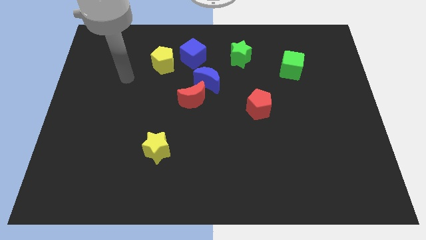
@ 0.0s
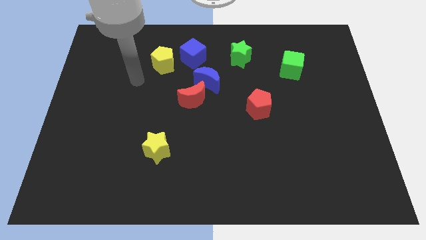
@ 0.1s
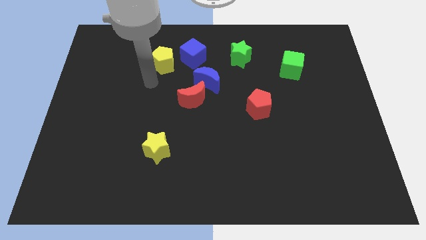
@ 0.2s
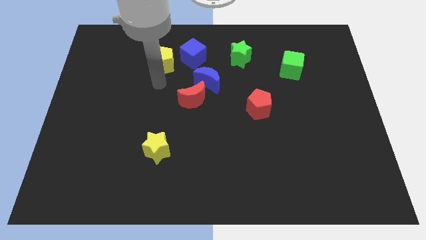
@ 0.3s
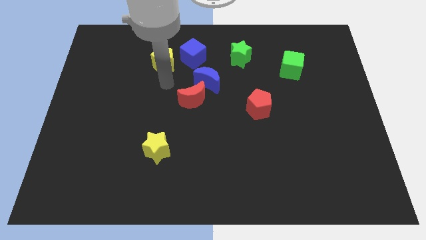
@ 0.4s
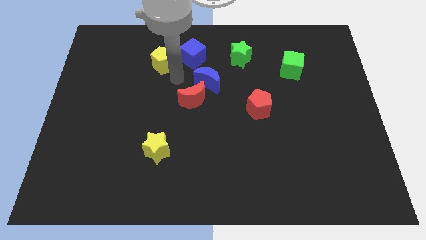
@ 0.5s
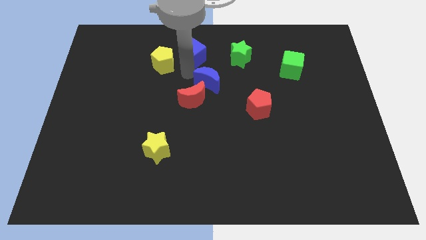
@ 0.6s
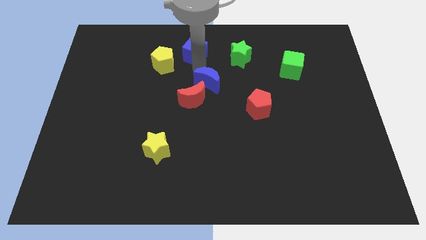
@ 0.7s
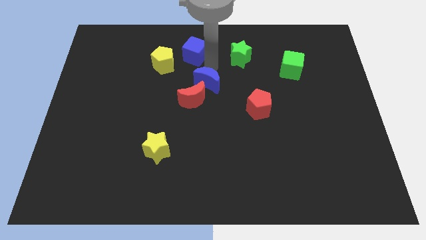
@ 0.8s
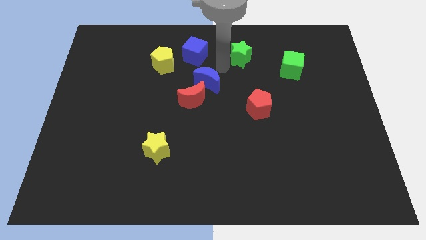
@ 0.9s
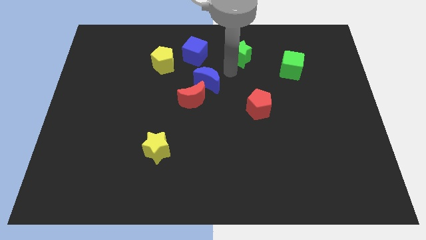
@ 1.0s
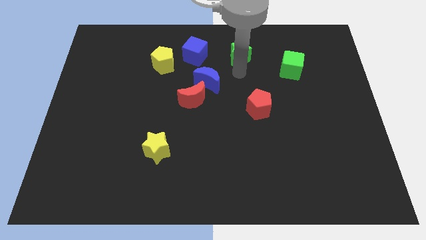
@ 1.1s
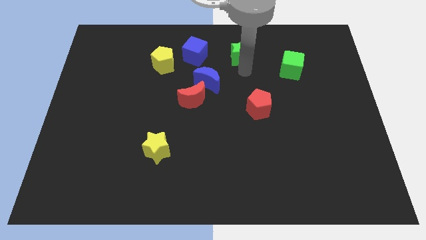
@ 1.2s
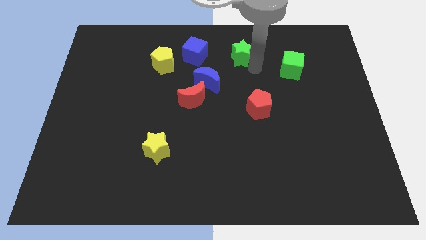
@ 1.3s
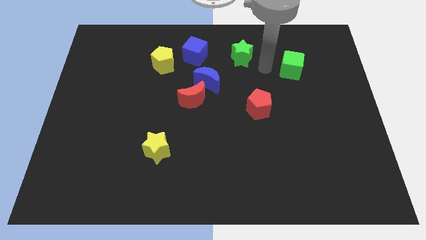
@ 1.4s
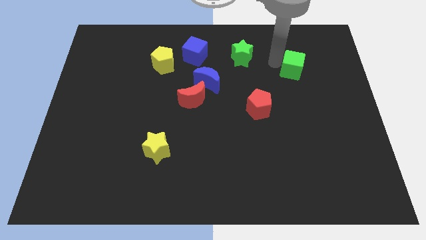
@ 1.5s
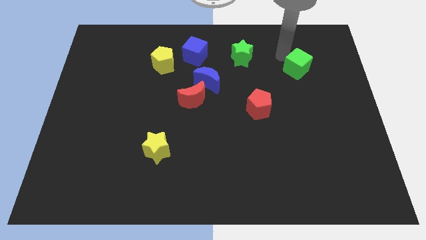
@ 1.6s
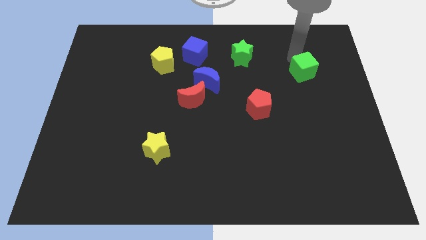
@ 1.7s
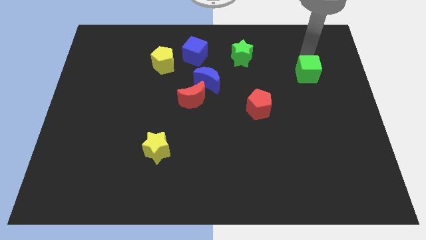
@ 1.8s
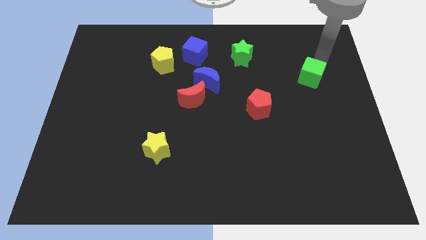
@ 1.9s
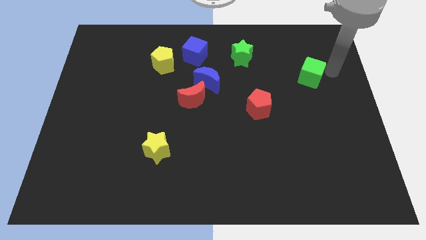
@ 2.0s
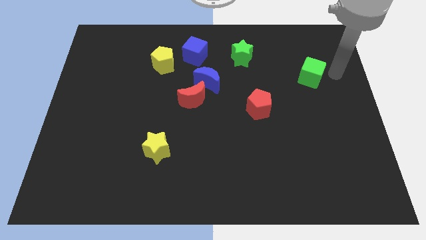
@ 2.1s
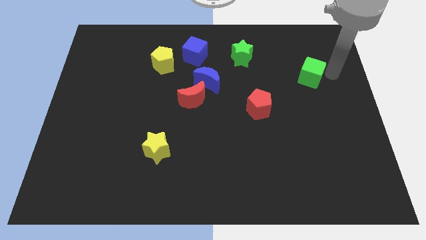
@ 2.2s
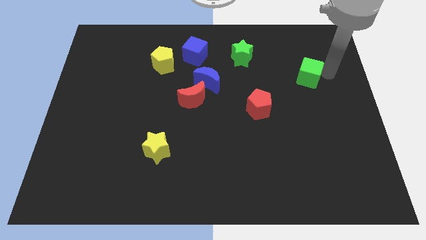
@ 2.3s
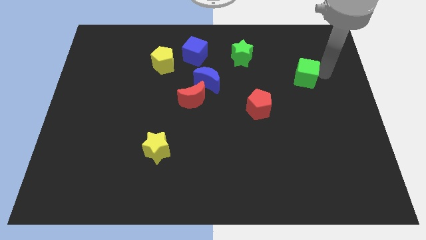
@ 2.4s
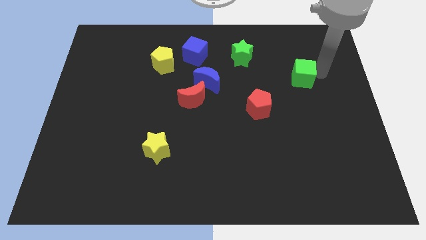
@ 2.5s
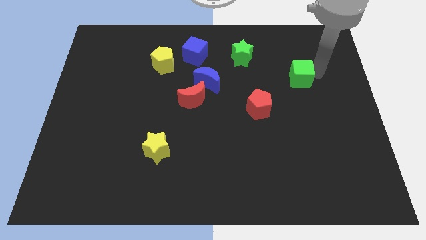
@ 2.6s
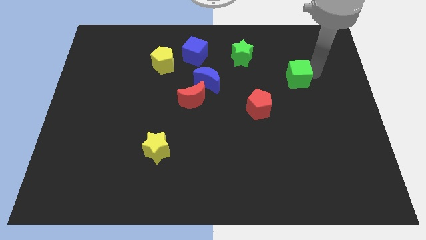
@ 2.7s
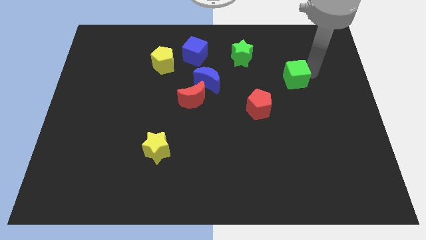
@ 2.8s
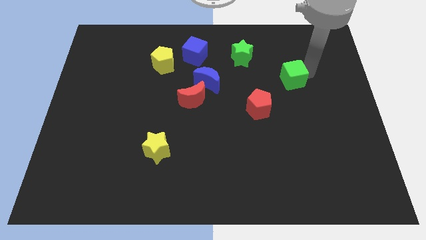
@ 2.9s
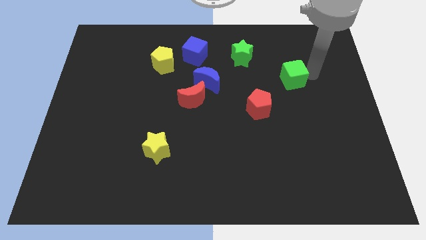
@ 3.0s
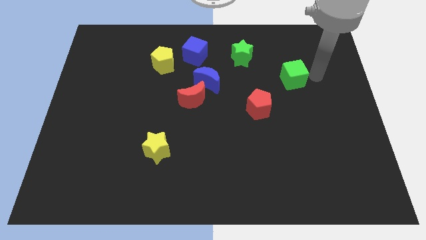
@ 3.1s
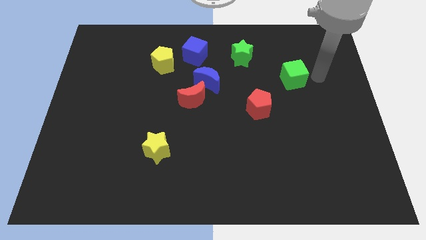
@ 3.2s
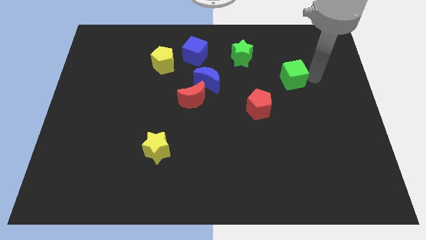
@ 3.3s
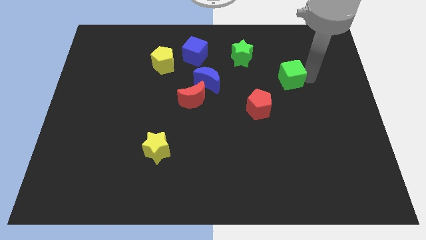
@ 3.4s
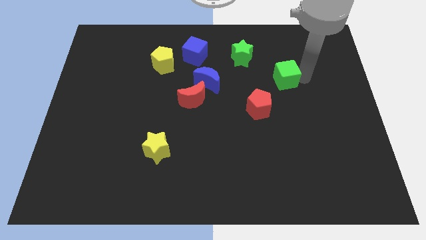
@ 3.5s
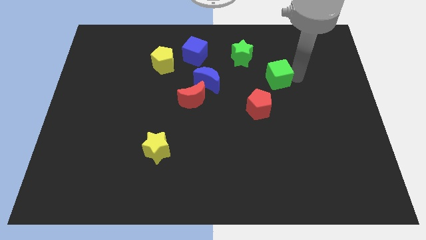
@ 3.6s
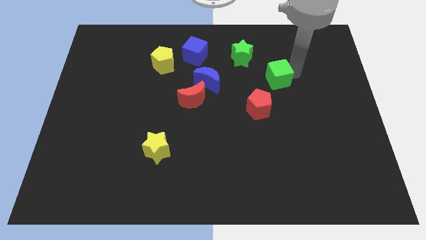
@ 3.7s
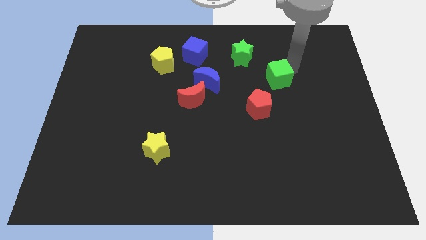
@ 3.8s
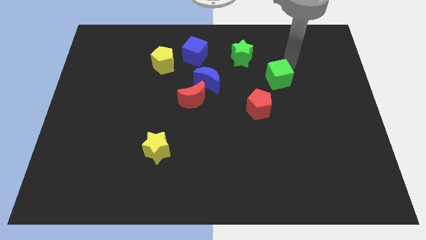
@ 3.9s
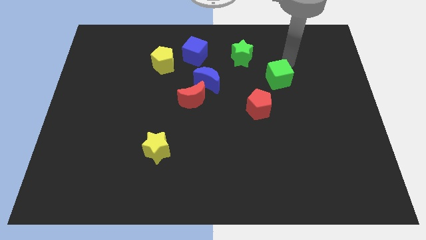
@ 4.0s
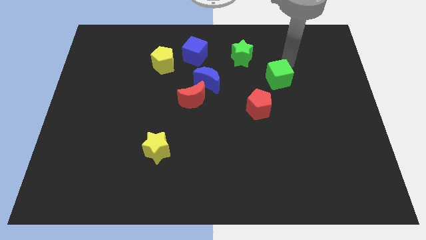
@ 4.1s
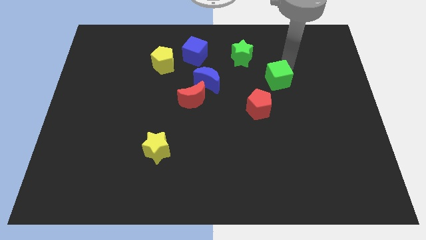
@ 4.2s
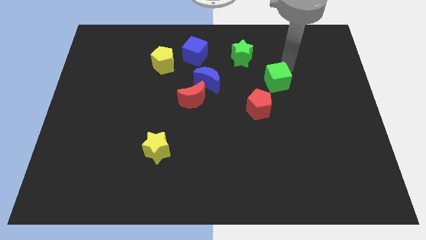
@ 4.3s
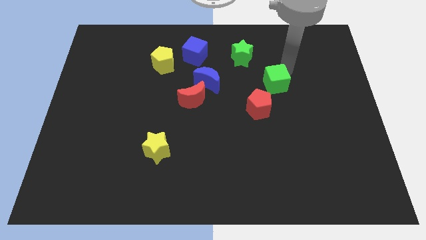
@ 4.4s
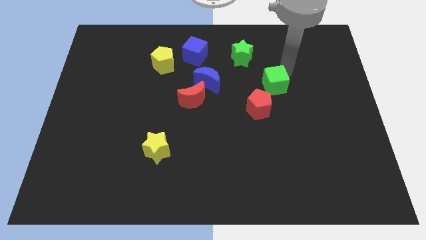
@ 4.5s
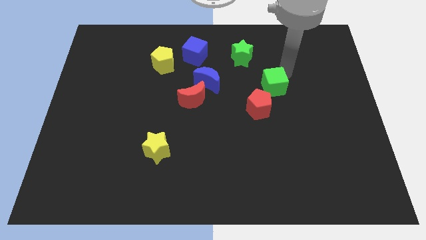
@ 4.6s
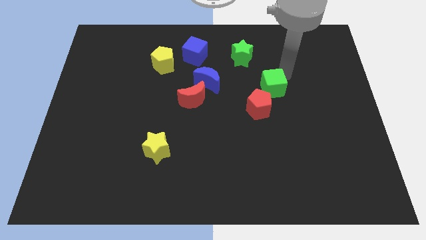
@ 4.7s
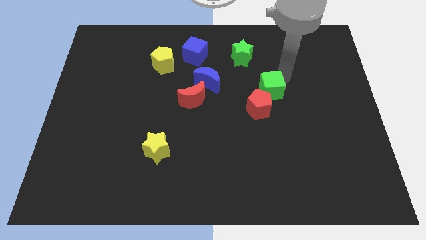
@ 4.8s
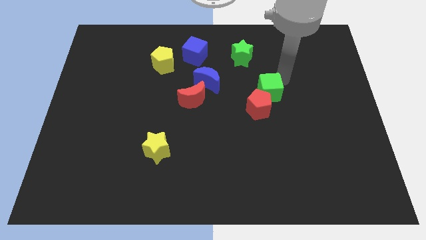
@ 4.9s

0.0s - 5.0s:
push the green cube next to the red pentagon

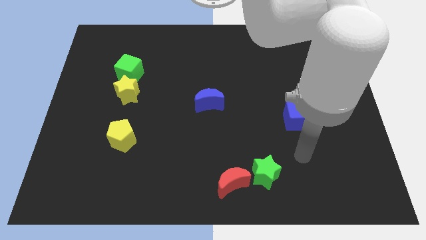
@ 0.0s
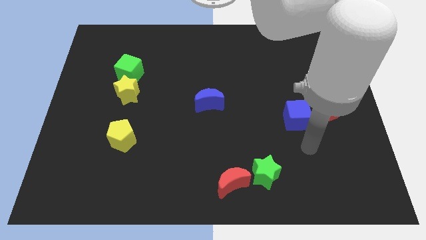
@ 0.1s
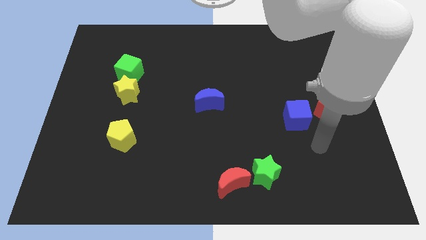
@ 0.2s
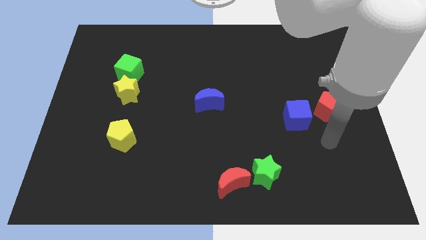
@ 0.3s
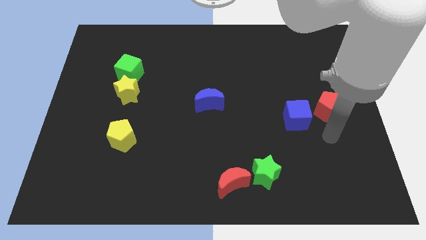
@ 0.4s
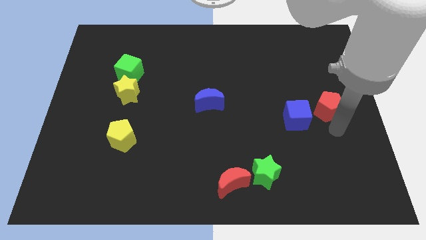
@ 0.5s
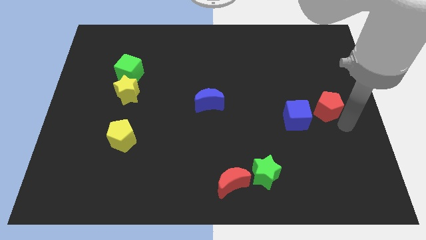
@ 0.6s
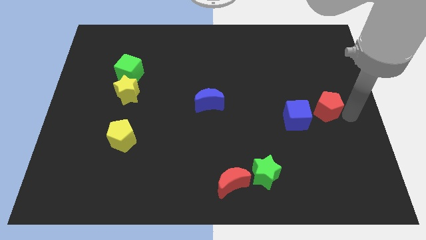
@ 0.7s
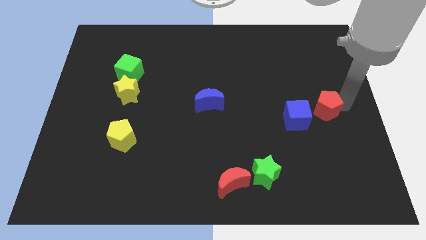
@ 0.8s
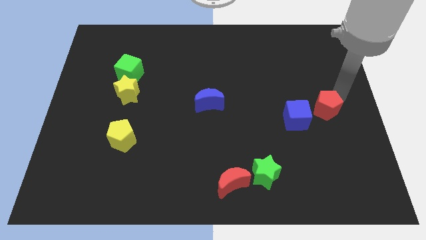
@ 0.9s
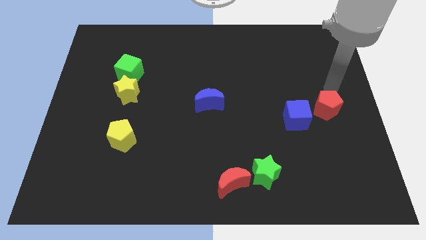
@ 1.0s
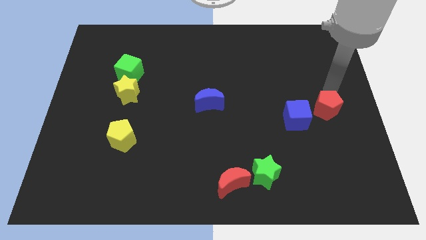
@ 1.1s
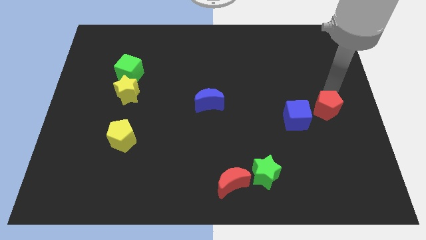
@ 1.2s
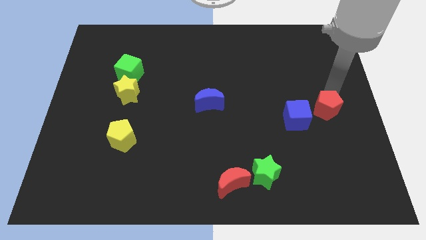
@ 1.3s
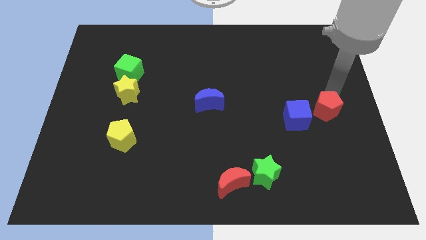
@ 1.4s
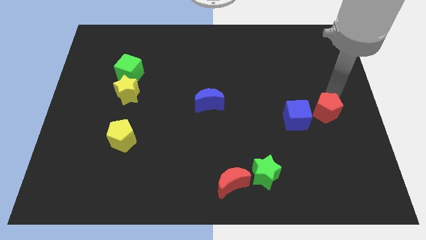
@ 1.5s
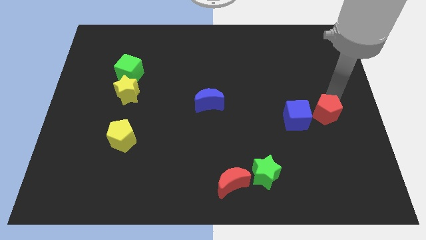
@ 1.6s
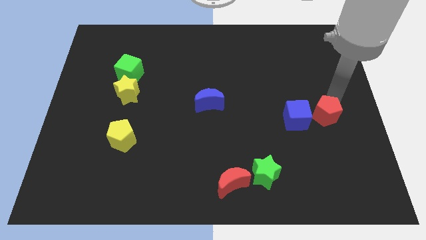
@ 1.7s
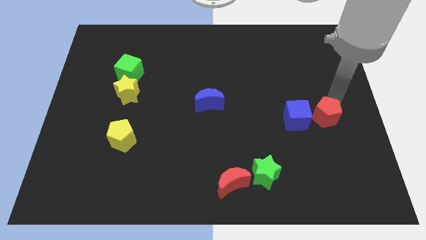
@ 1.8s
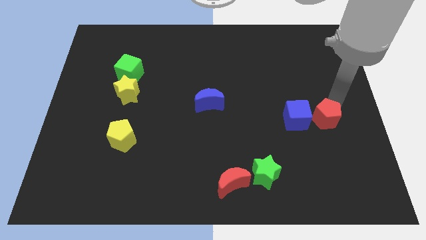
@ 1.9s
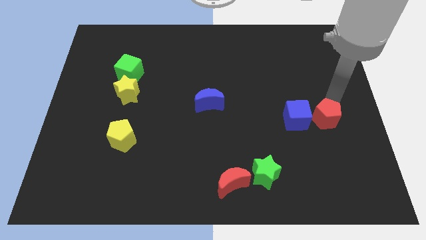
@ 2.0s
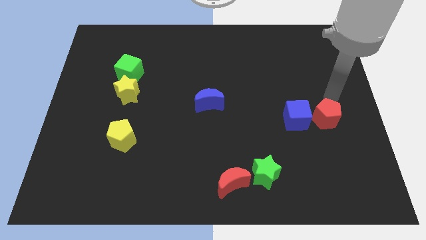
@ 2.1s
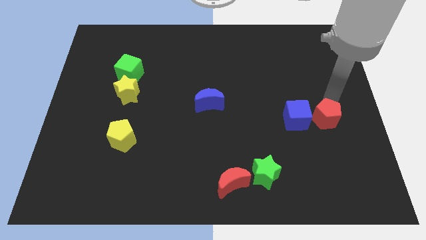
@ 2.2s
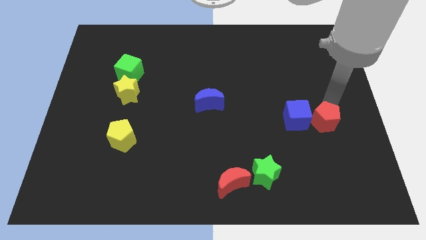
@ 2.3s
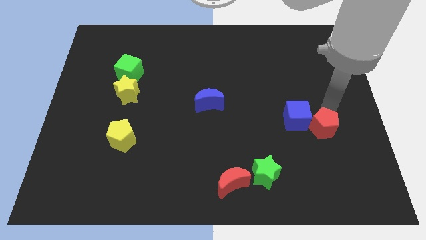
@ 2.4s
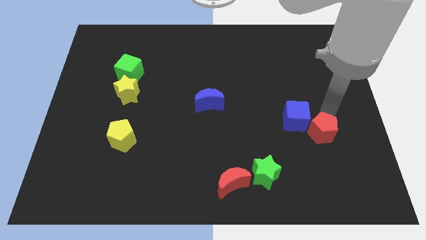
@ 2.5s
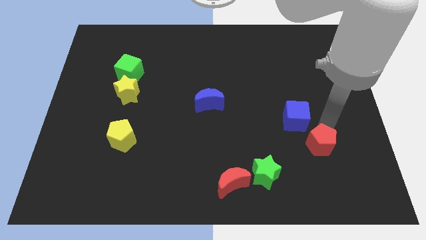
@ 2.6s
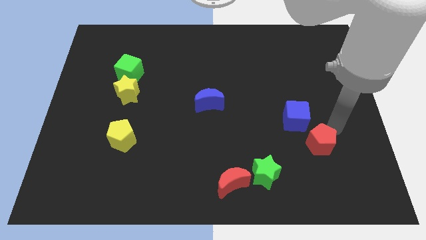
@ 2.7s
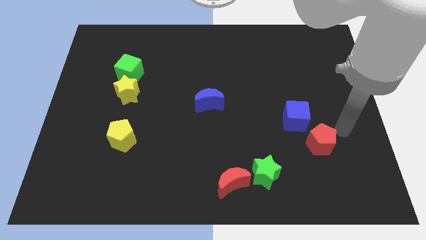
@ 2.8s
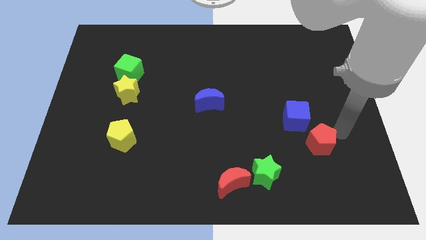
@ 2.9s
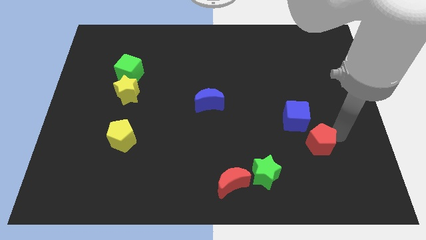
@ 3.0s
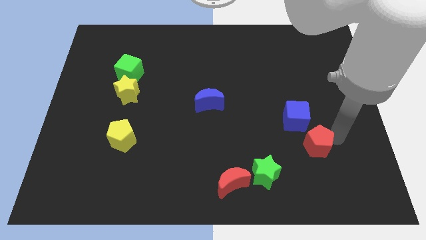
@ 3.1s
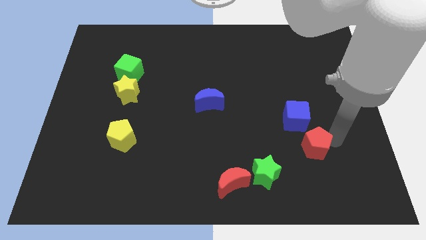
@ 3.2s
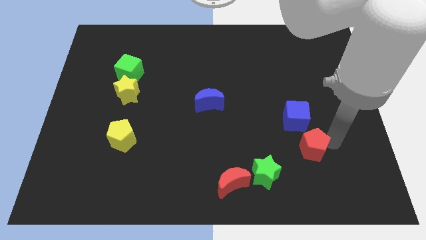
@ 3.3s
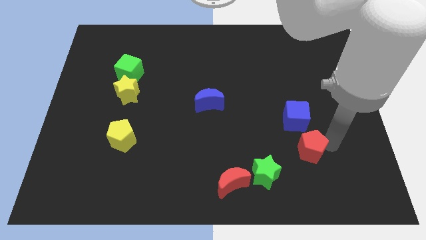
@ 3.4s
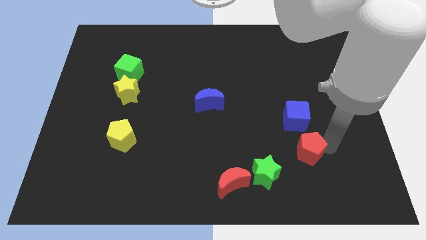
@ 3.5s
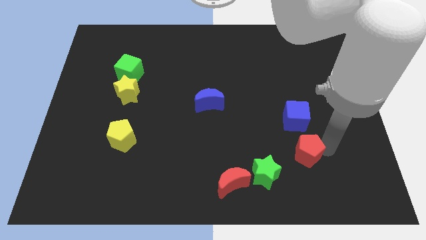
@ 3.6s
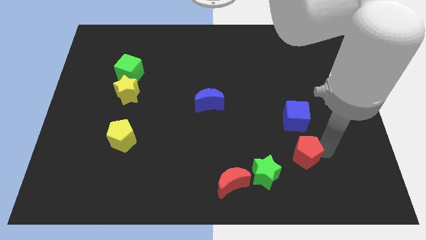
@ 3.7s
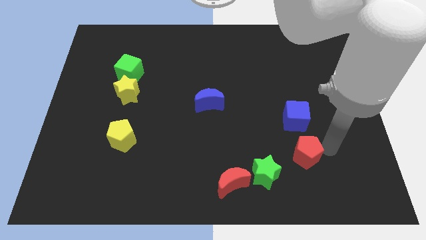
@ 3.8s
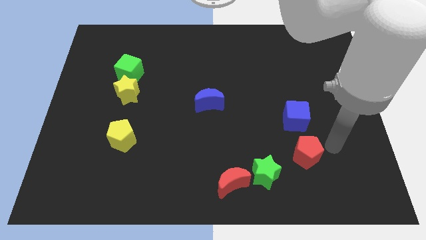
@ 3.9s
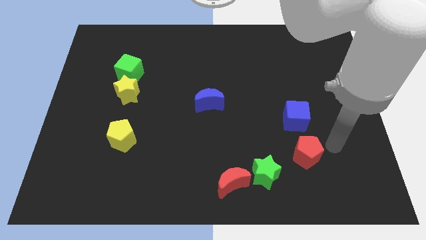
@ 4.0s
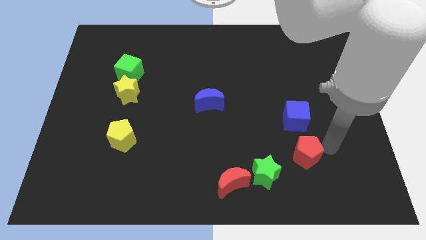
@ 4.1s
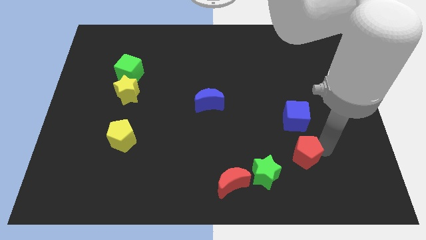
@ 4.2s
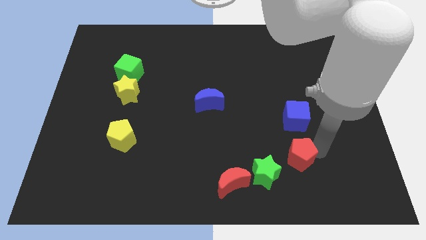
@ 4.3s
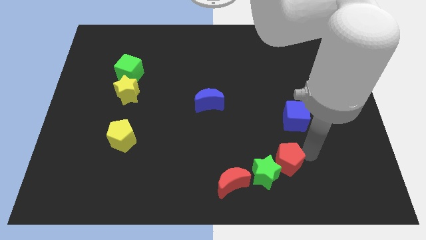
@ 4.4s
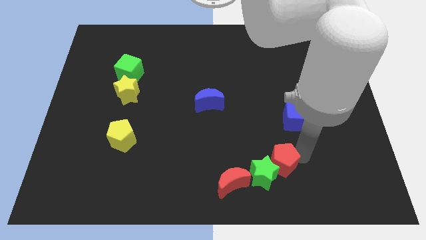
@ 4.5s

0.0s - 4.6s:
push the red pentagon to the green star
